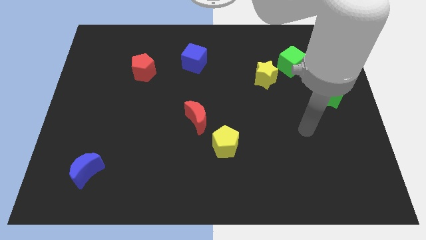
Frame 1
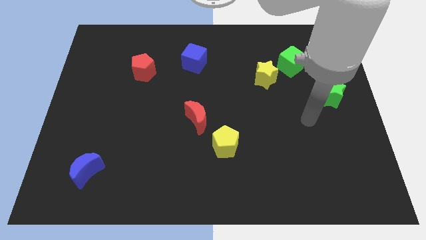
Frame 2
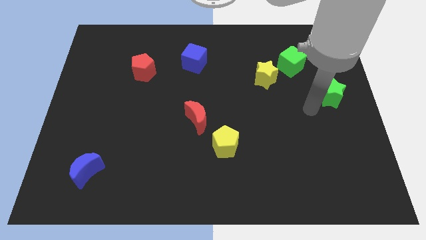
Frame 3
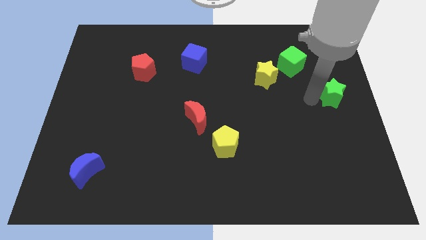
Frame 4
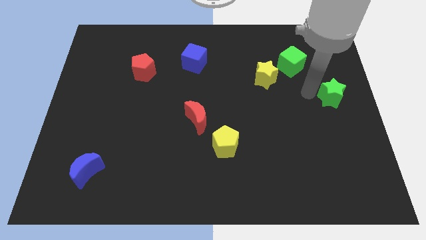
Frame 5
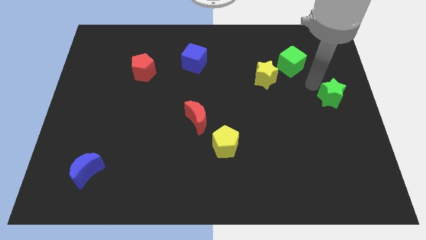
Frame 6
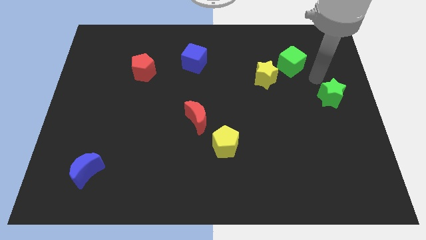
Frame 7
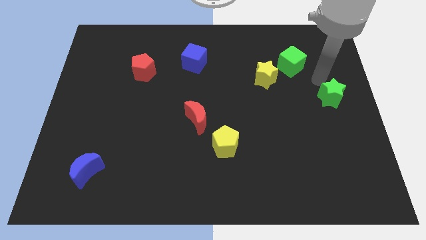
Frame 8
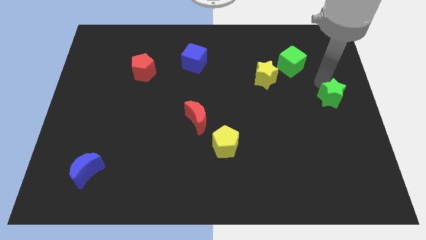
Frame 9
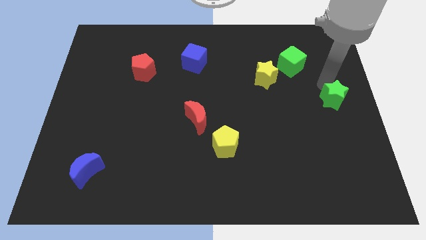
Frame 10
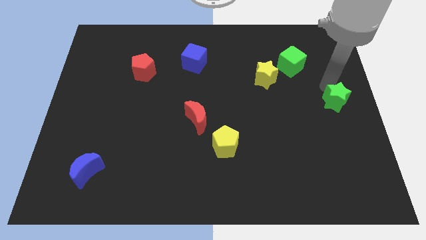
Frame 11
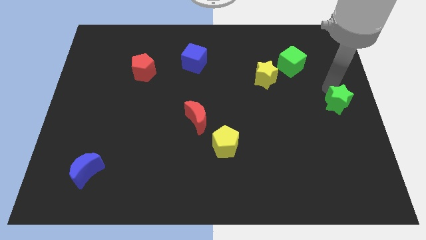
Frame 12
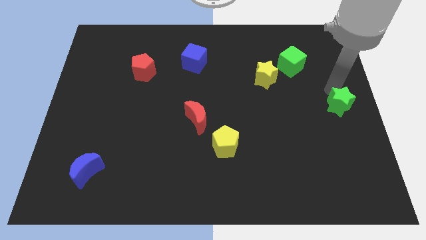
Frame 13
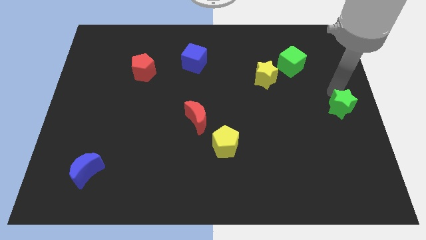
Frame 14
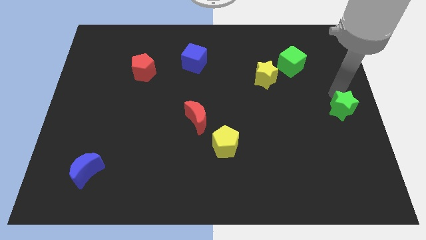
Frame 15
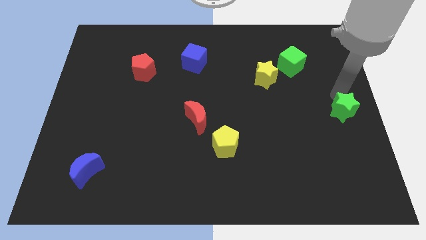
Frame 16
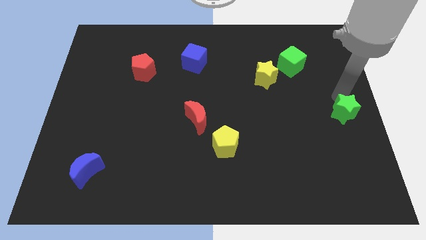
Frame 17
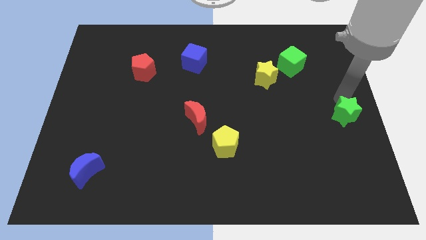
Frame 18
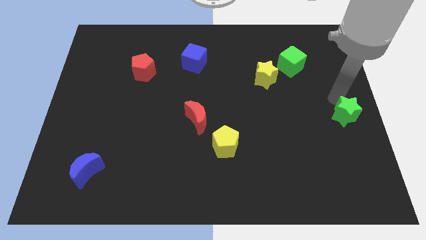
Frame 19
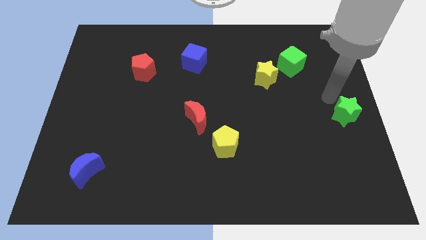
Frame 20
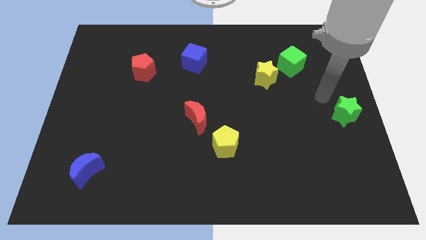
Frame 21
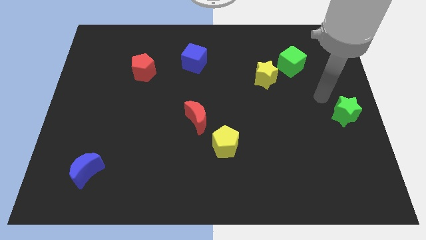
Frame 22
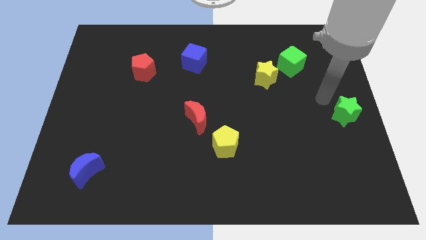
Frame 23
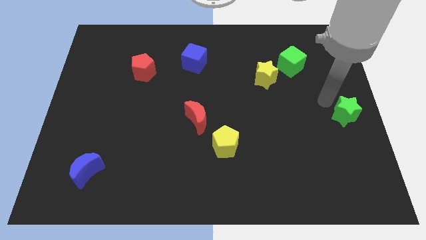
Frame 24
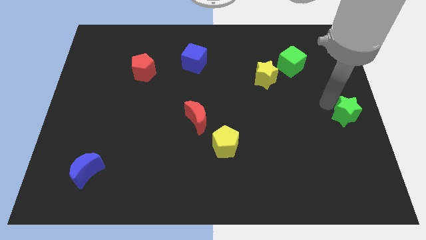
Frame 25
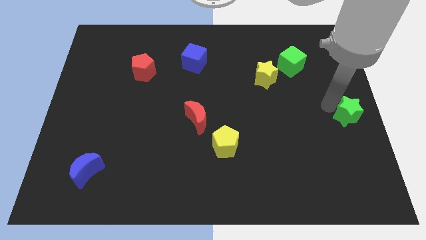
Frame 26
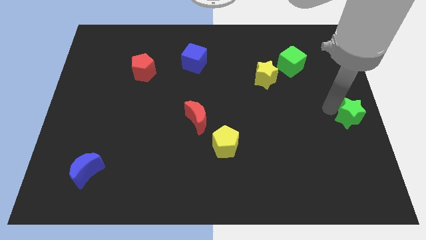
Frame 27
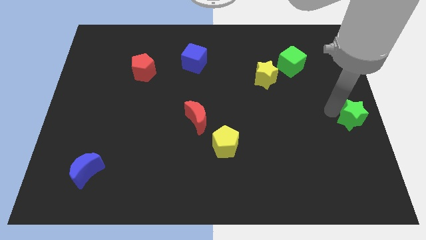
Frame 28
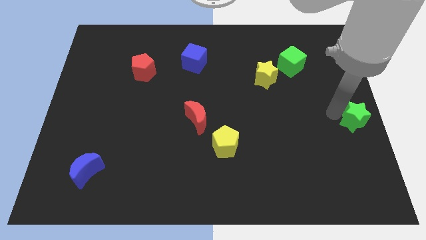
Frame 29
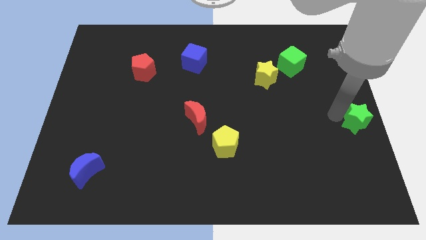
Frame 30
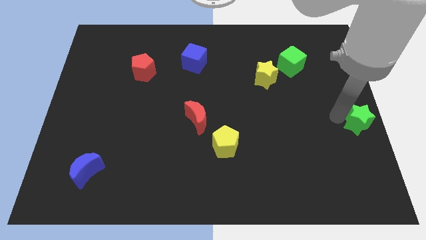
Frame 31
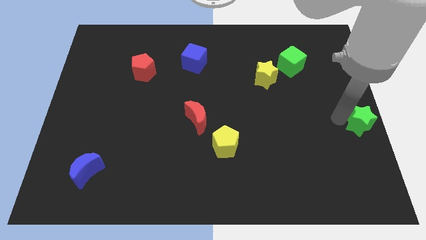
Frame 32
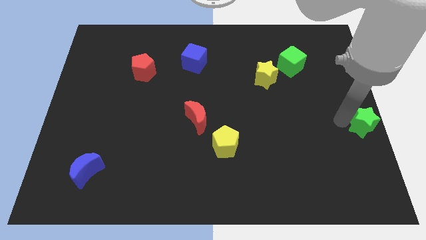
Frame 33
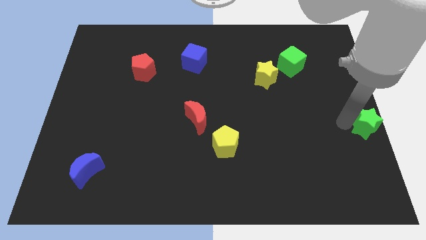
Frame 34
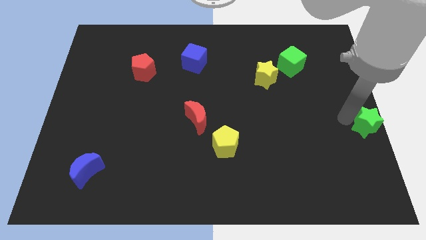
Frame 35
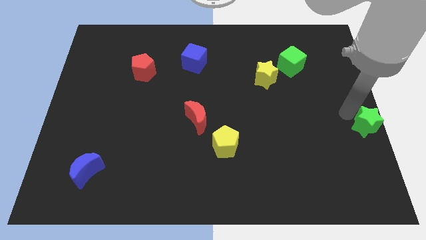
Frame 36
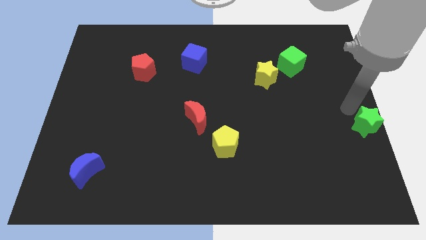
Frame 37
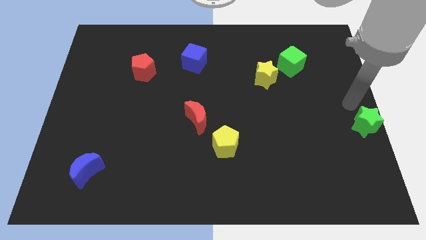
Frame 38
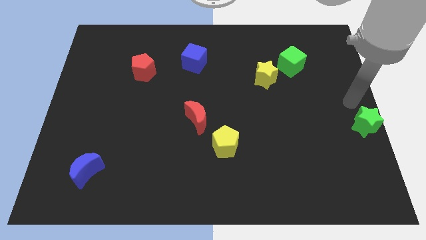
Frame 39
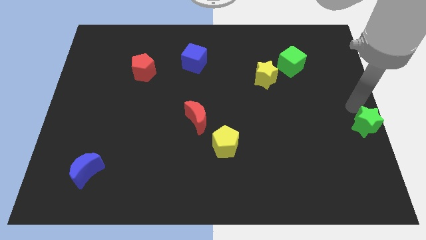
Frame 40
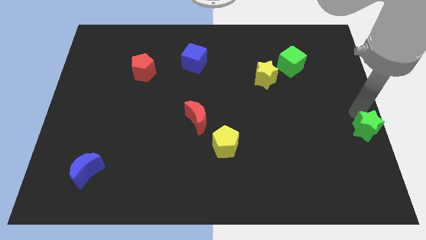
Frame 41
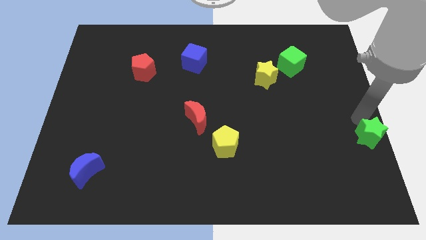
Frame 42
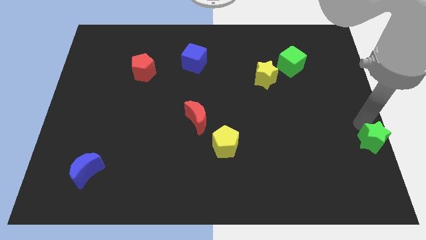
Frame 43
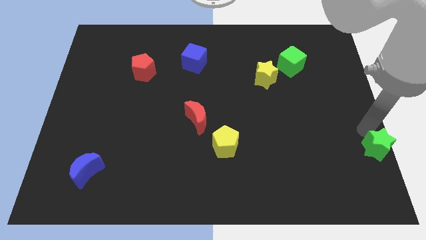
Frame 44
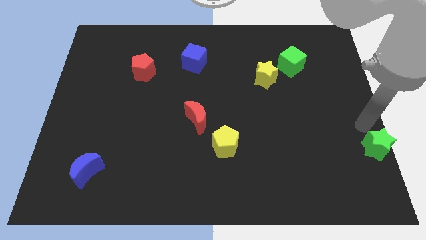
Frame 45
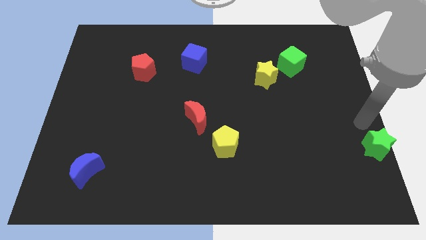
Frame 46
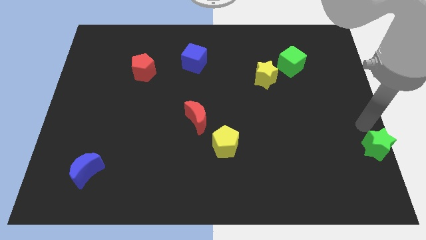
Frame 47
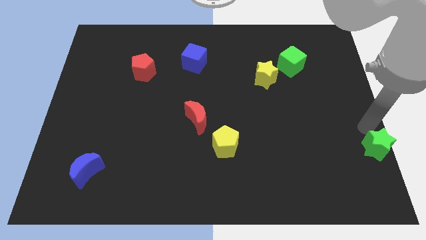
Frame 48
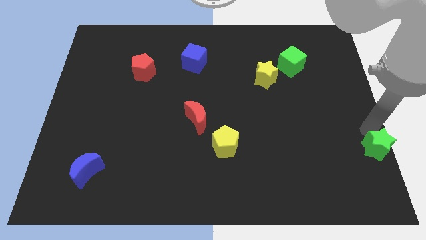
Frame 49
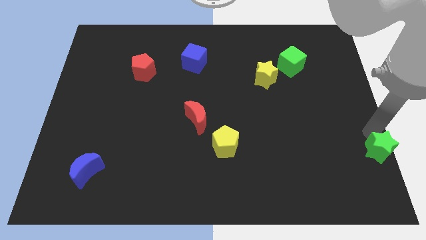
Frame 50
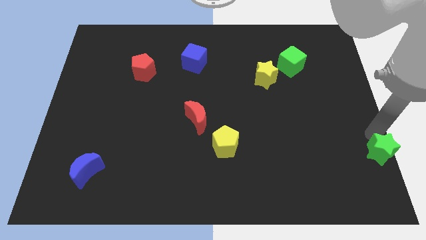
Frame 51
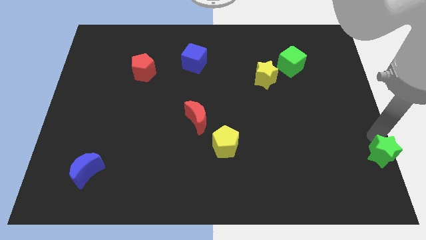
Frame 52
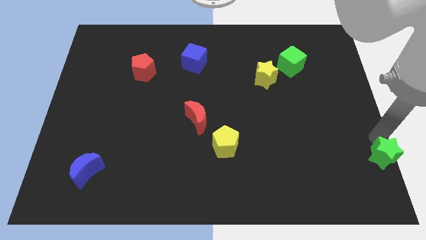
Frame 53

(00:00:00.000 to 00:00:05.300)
put the green star to the bottom right of the board

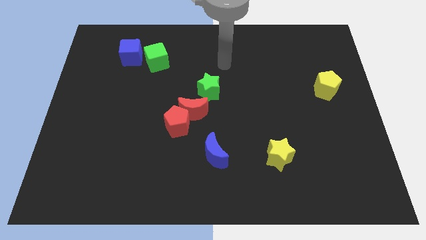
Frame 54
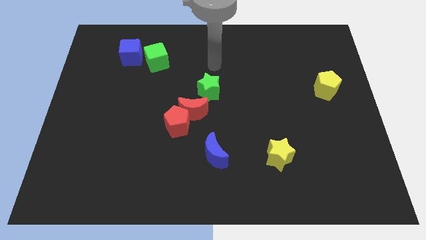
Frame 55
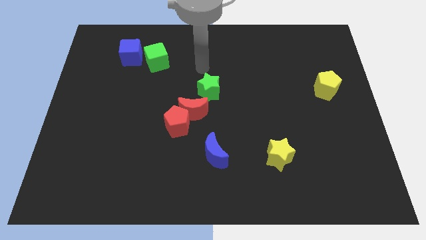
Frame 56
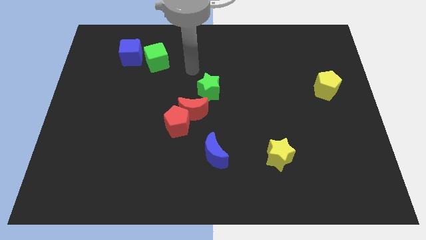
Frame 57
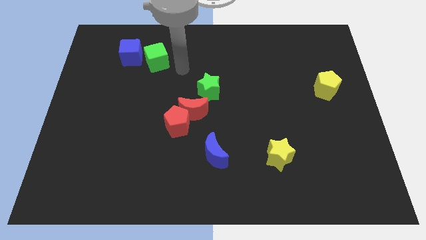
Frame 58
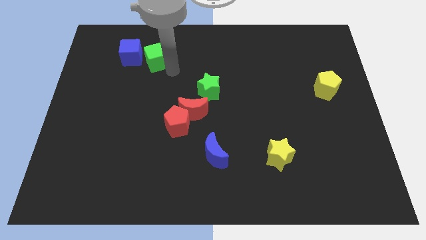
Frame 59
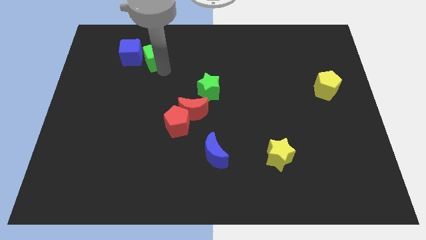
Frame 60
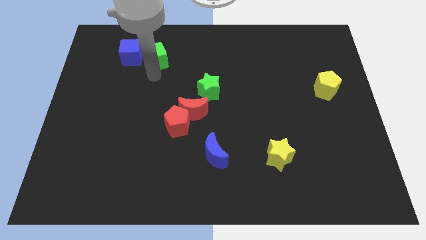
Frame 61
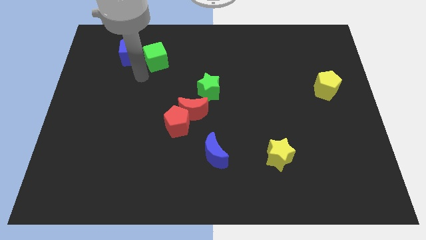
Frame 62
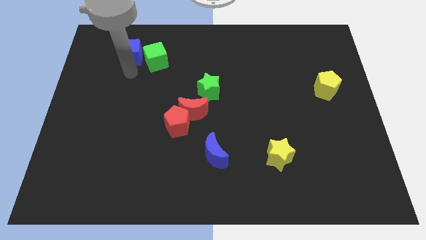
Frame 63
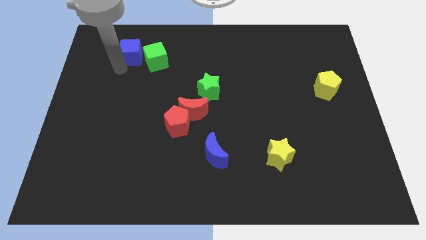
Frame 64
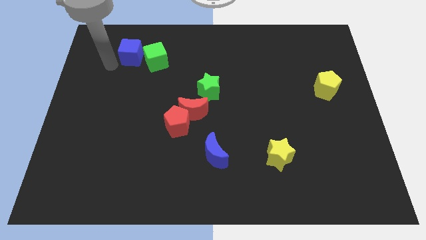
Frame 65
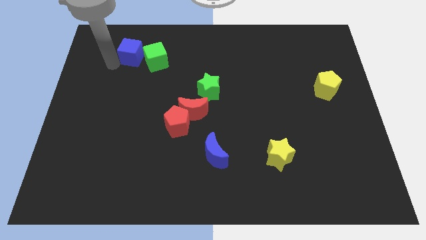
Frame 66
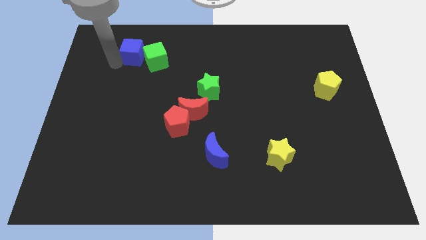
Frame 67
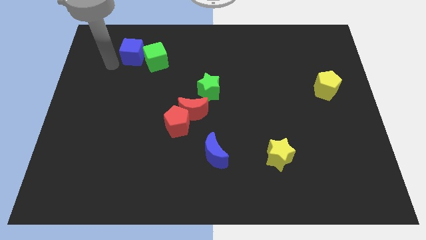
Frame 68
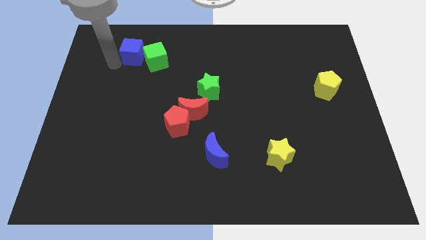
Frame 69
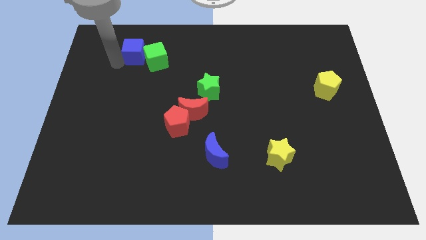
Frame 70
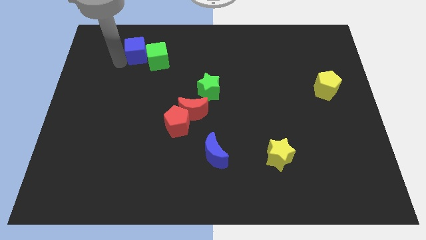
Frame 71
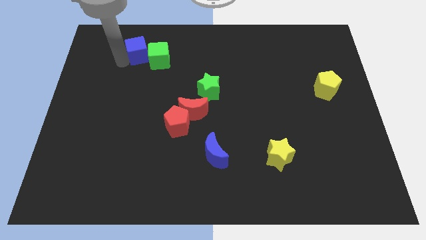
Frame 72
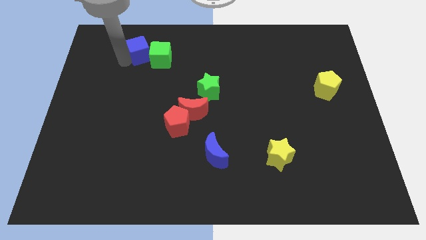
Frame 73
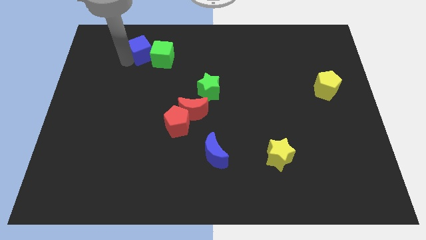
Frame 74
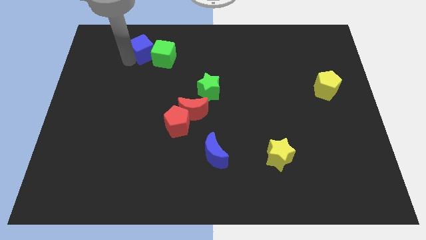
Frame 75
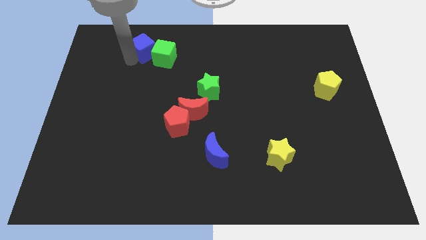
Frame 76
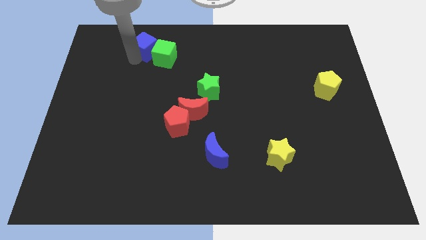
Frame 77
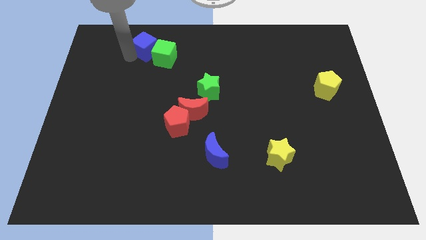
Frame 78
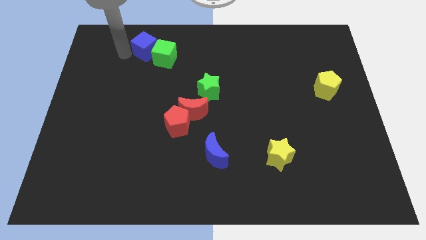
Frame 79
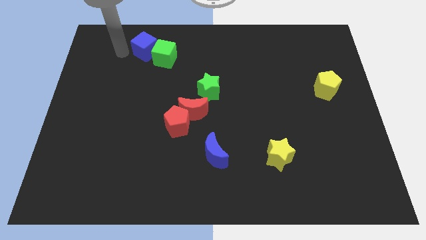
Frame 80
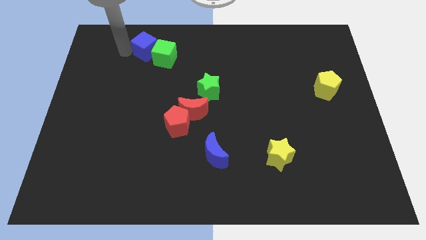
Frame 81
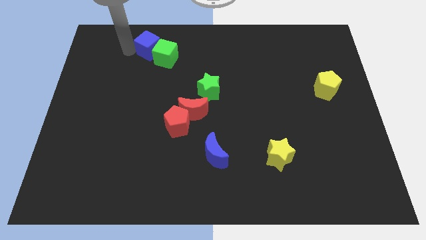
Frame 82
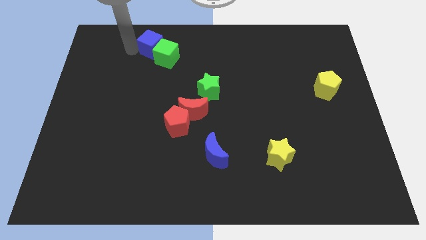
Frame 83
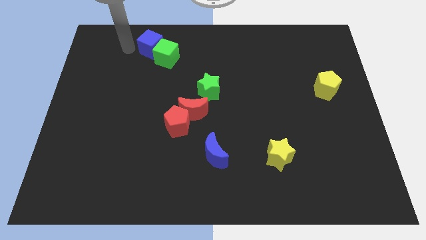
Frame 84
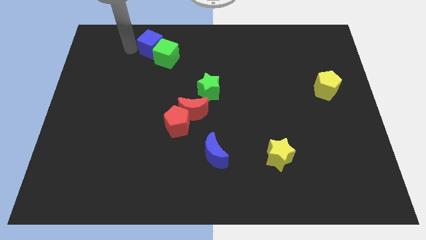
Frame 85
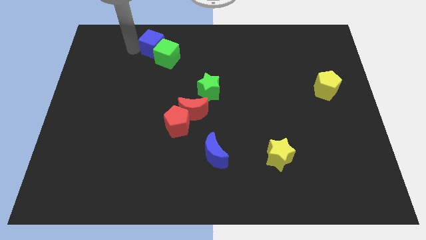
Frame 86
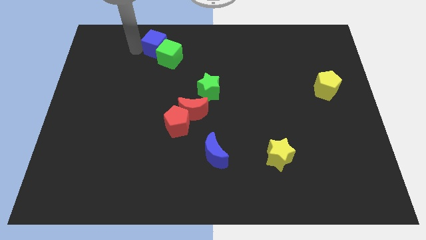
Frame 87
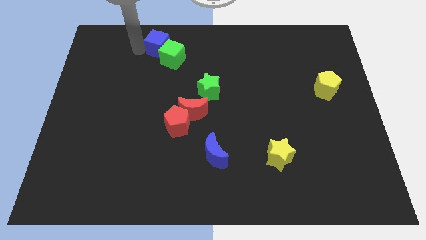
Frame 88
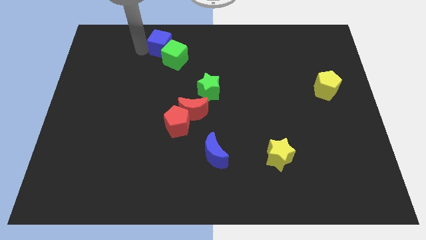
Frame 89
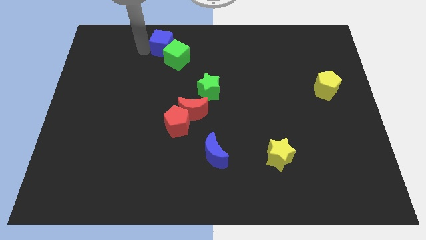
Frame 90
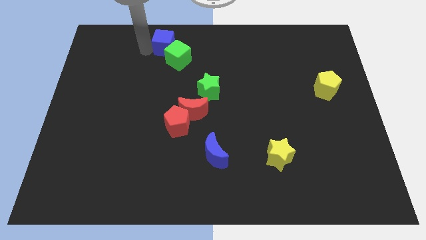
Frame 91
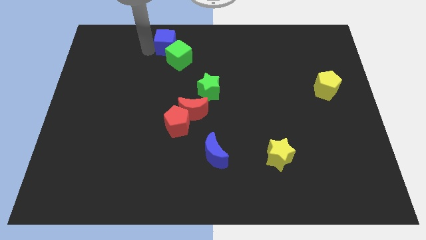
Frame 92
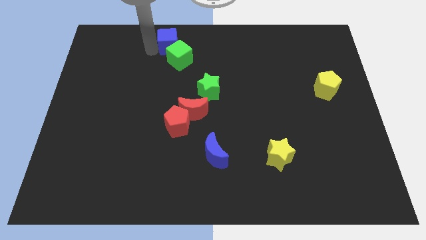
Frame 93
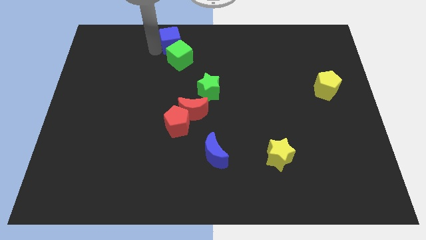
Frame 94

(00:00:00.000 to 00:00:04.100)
move the blue cube to the top side
